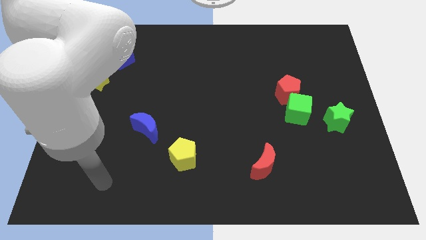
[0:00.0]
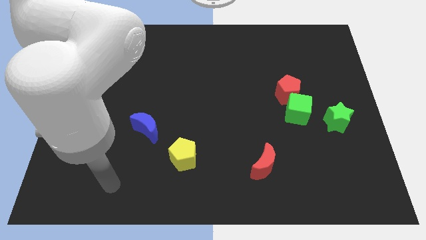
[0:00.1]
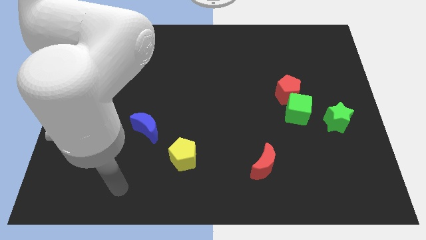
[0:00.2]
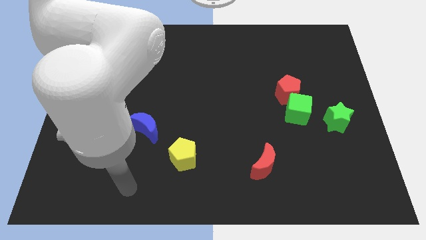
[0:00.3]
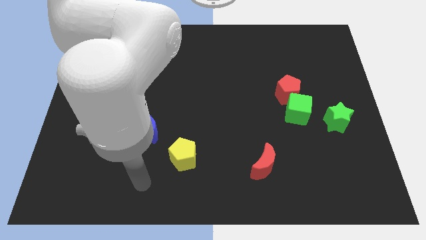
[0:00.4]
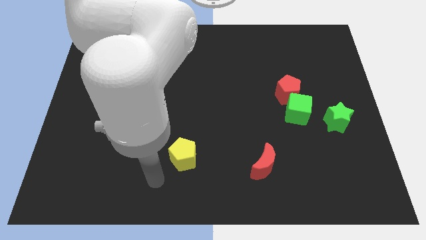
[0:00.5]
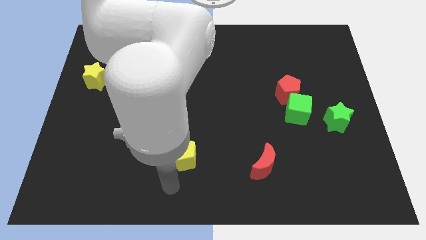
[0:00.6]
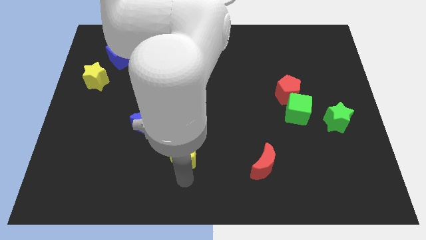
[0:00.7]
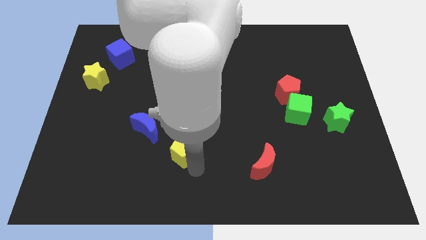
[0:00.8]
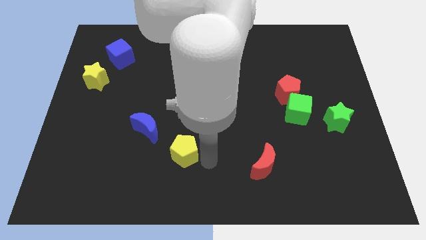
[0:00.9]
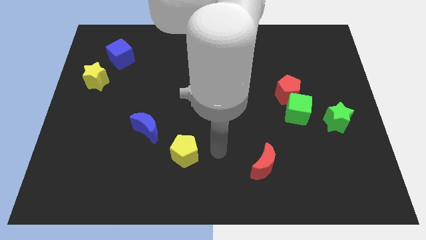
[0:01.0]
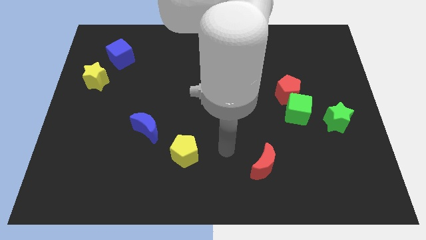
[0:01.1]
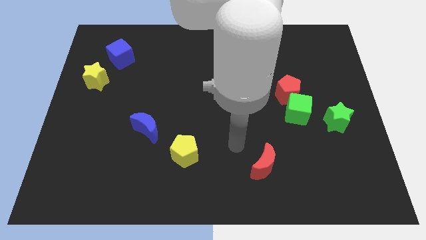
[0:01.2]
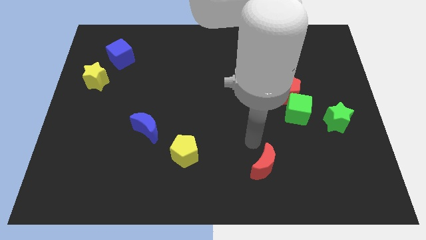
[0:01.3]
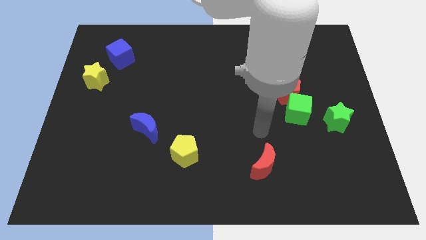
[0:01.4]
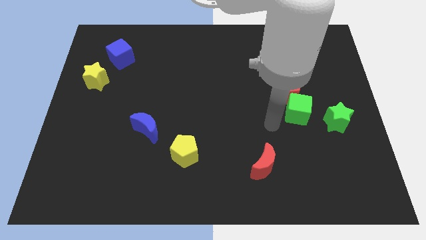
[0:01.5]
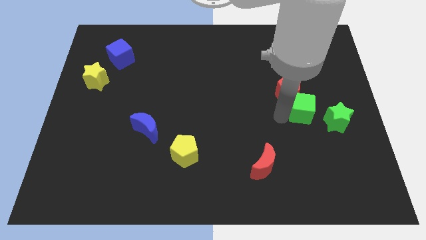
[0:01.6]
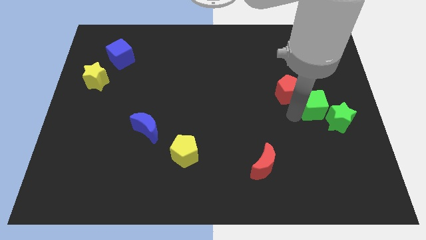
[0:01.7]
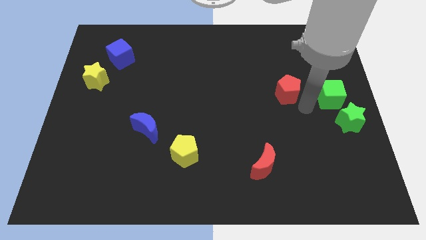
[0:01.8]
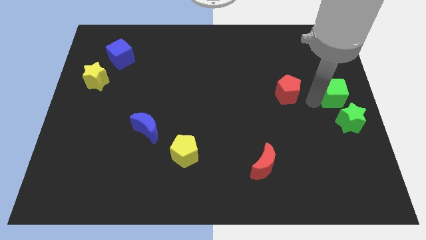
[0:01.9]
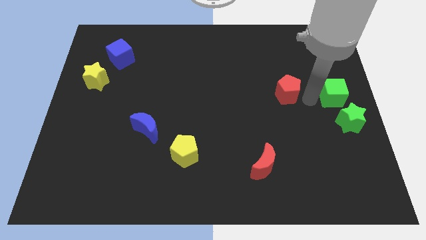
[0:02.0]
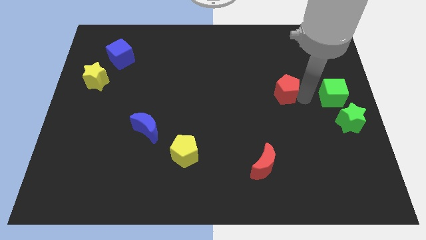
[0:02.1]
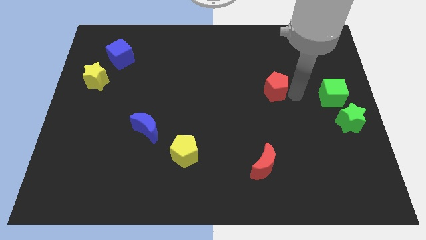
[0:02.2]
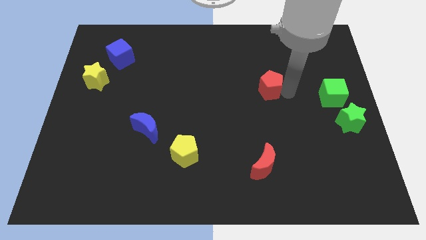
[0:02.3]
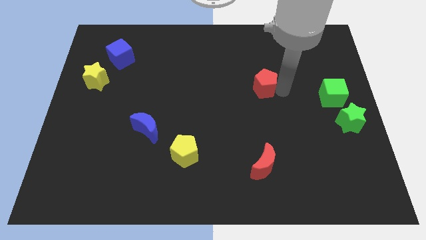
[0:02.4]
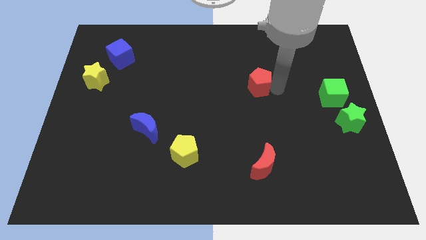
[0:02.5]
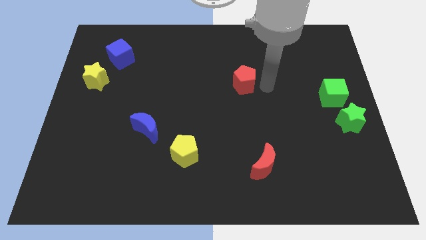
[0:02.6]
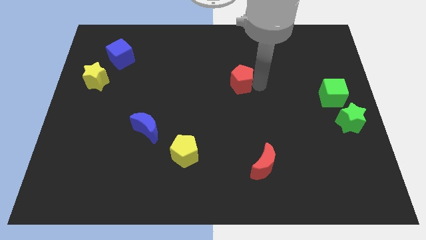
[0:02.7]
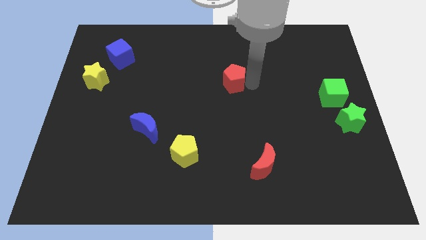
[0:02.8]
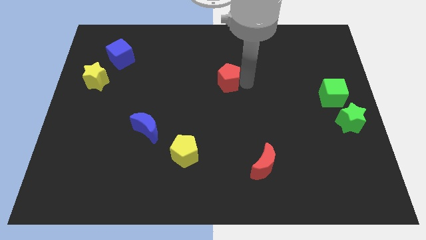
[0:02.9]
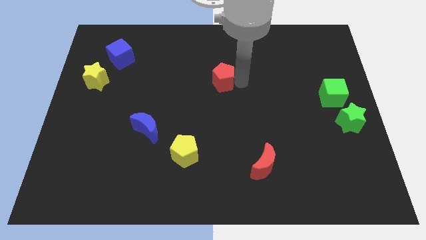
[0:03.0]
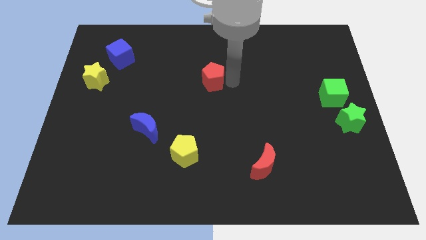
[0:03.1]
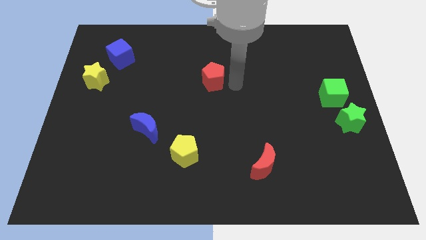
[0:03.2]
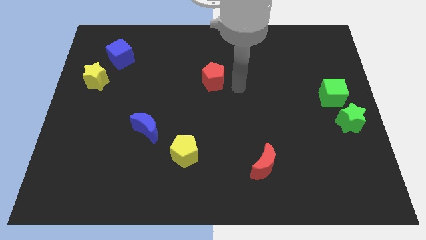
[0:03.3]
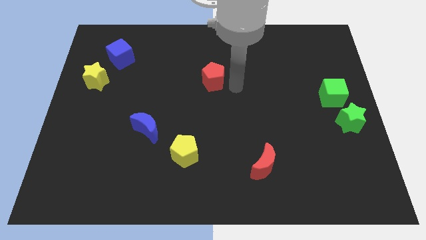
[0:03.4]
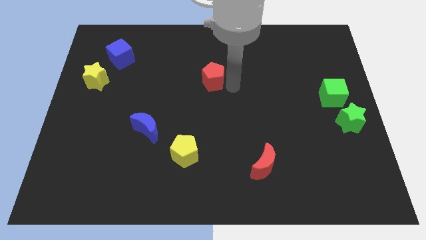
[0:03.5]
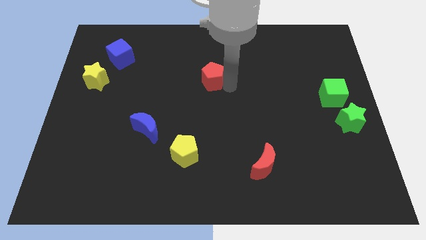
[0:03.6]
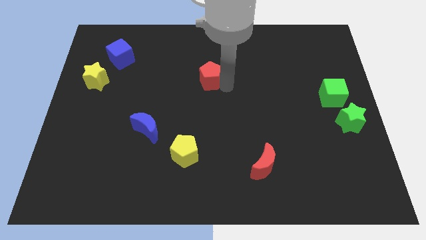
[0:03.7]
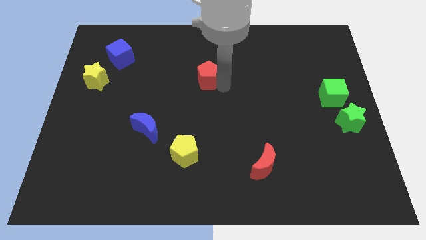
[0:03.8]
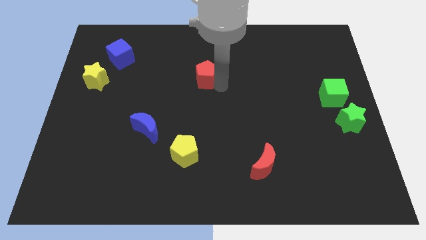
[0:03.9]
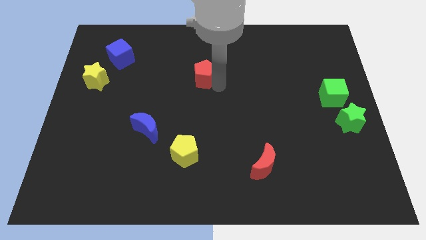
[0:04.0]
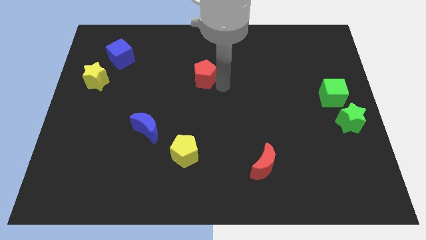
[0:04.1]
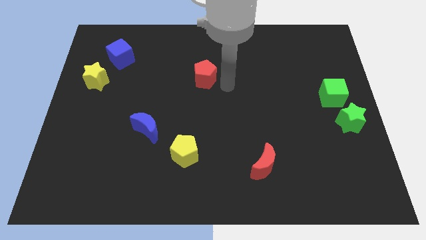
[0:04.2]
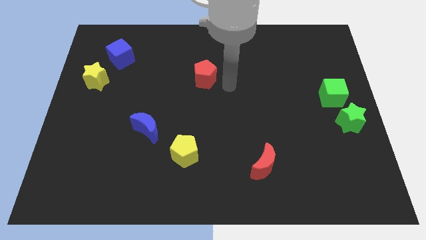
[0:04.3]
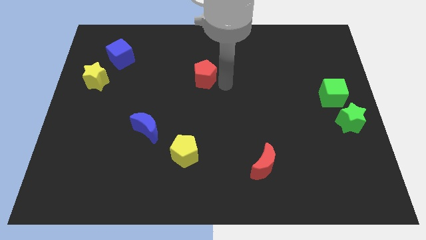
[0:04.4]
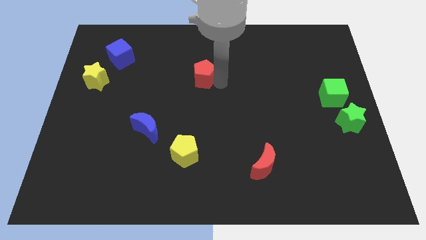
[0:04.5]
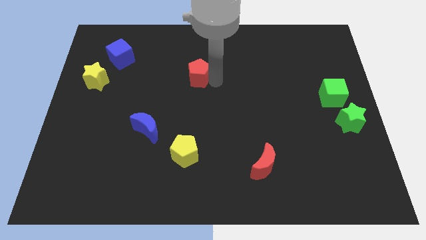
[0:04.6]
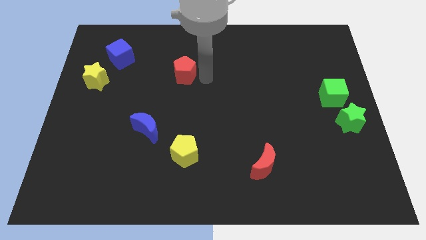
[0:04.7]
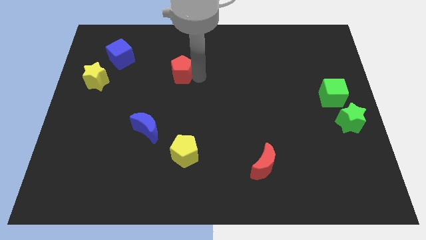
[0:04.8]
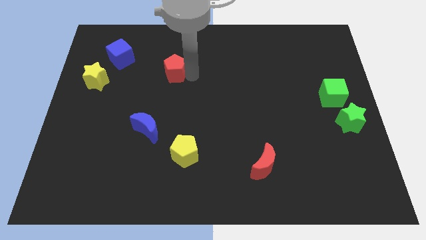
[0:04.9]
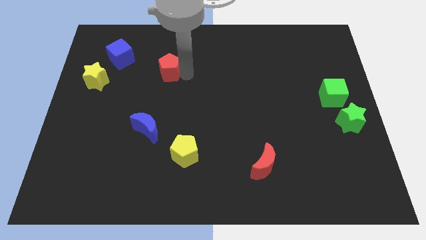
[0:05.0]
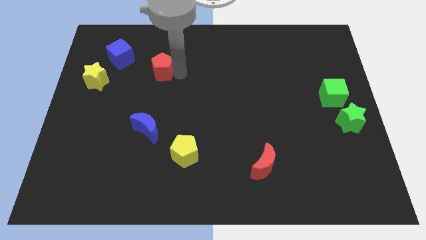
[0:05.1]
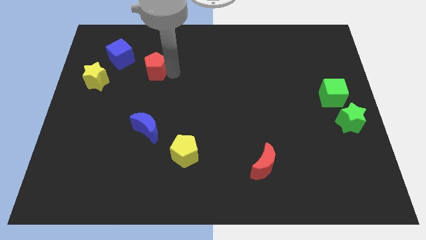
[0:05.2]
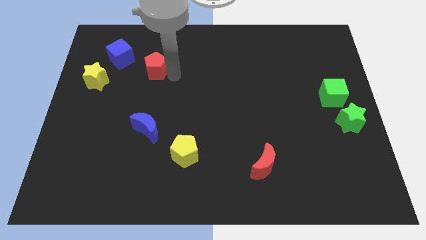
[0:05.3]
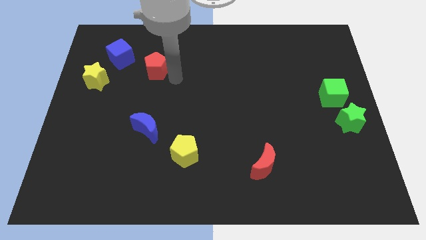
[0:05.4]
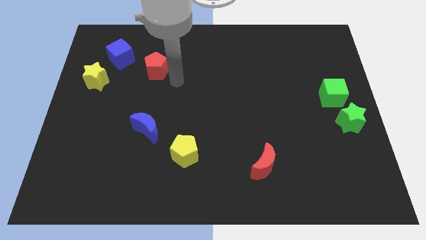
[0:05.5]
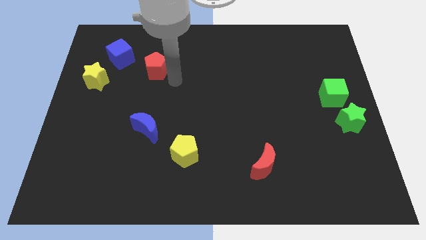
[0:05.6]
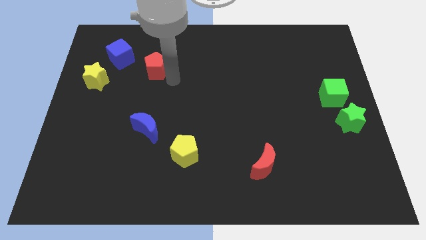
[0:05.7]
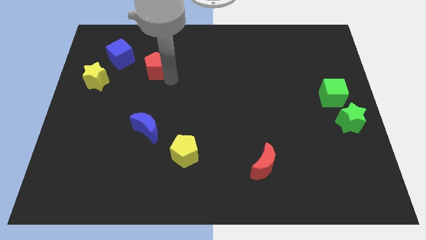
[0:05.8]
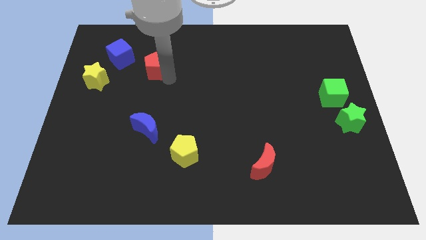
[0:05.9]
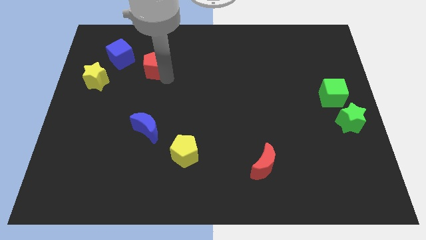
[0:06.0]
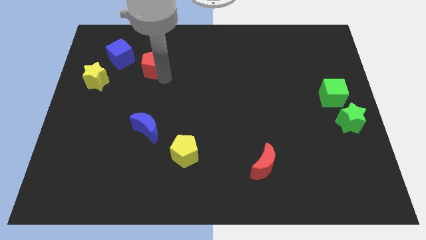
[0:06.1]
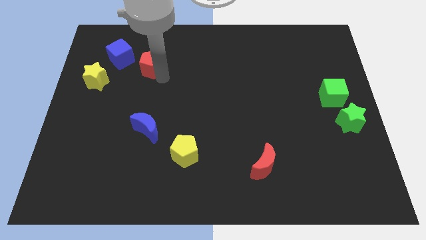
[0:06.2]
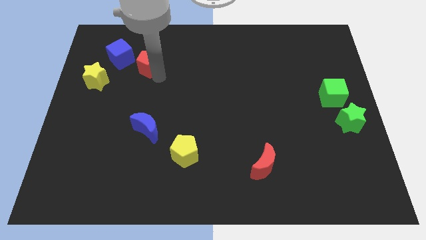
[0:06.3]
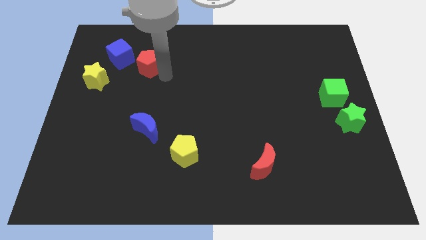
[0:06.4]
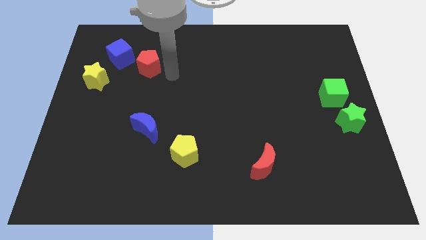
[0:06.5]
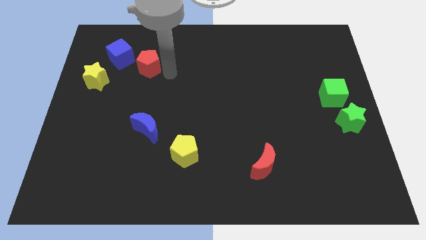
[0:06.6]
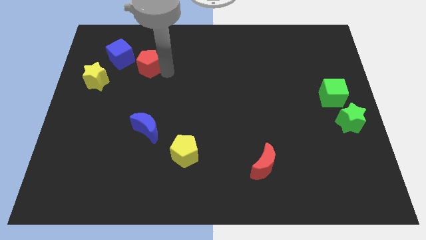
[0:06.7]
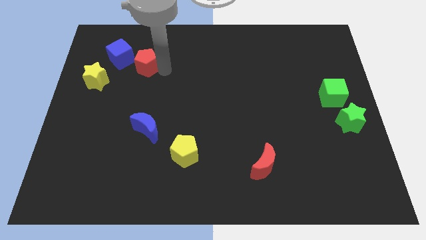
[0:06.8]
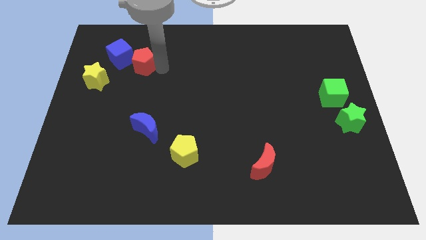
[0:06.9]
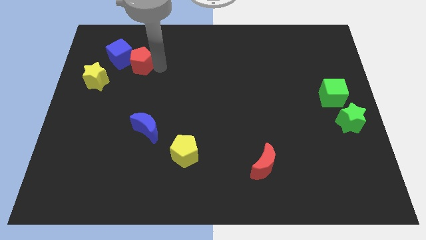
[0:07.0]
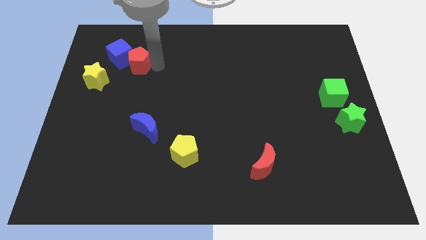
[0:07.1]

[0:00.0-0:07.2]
slide the red pentagon towards the blue cube

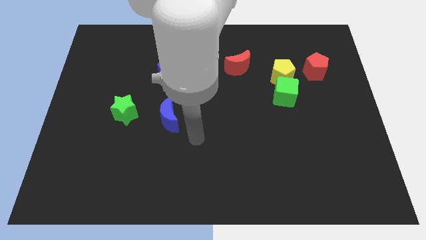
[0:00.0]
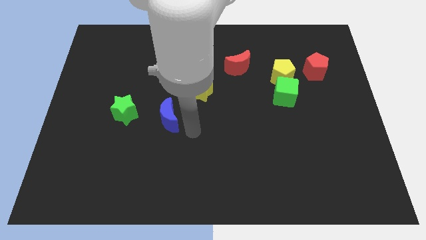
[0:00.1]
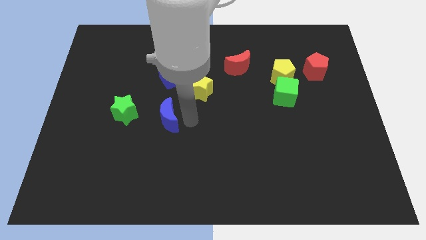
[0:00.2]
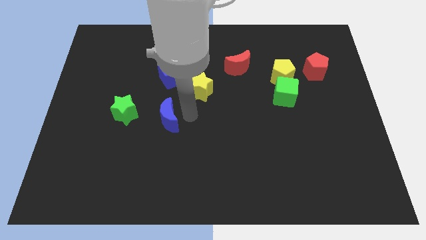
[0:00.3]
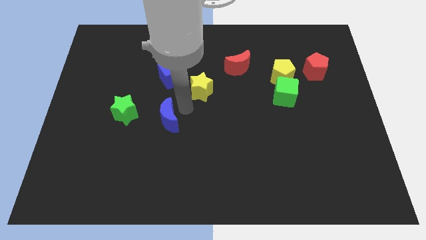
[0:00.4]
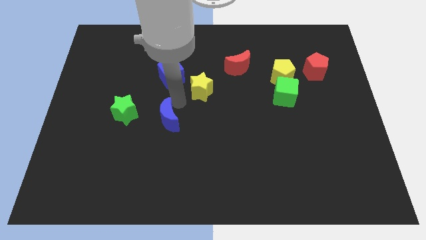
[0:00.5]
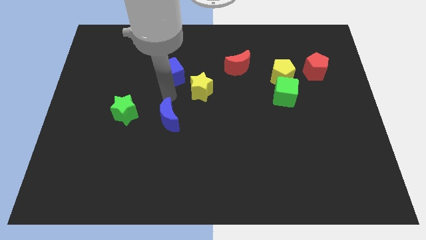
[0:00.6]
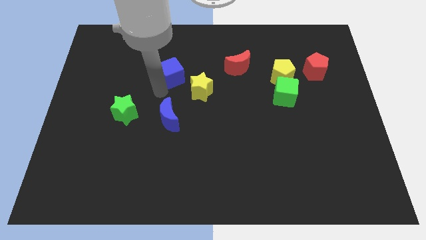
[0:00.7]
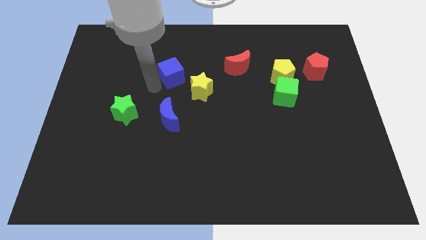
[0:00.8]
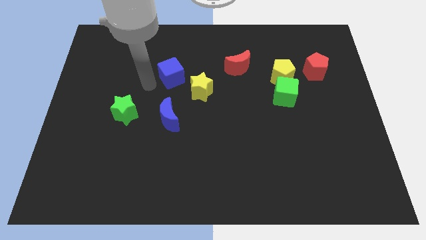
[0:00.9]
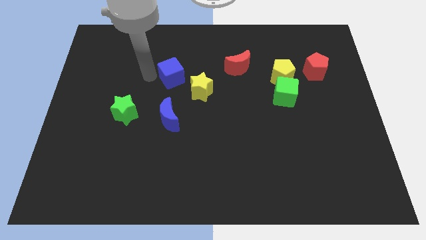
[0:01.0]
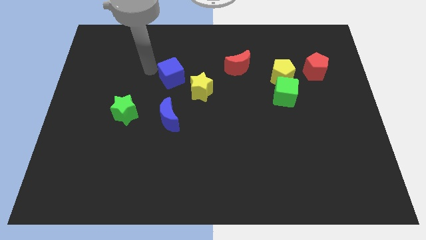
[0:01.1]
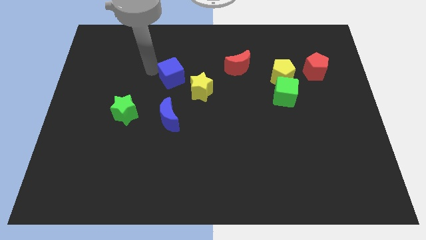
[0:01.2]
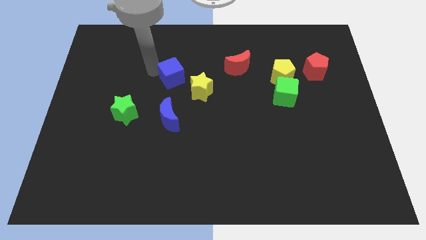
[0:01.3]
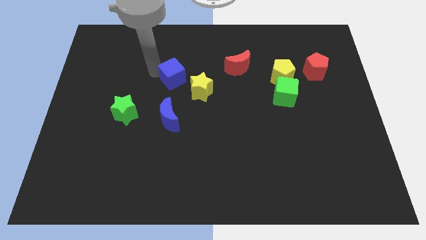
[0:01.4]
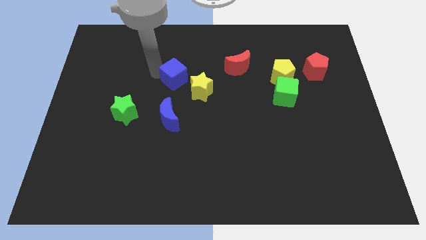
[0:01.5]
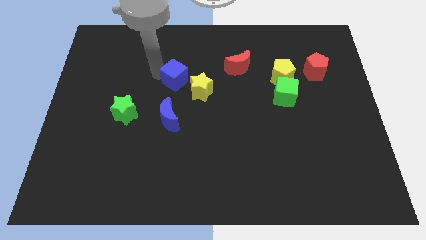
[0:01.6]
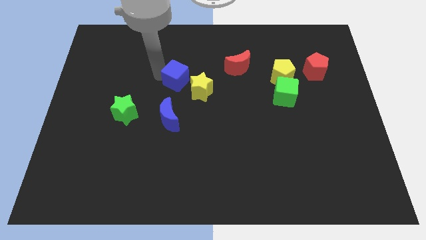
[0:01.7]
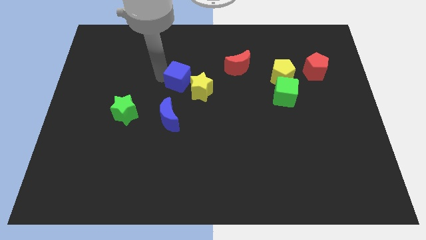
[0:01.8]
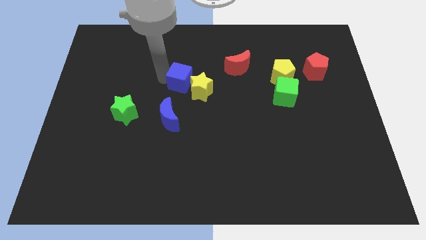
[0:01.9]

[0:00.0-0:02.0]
put the blue cube next to the yellow star
